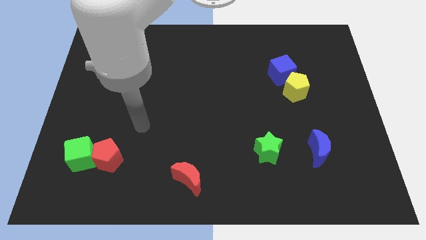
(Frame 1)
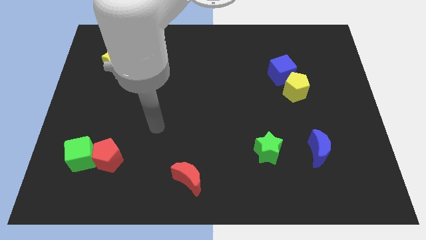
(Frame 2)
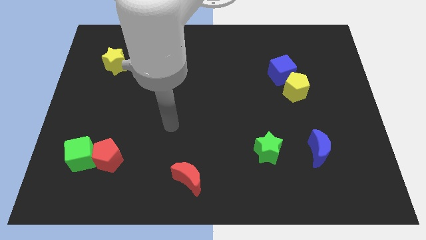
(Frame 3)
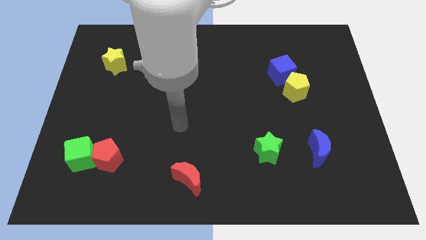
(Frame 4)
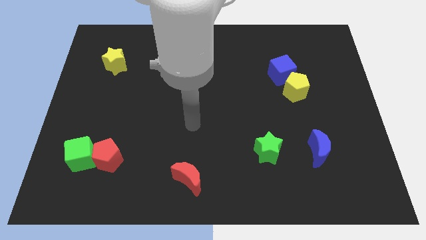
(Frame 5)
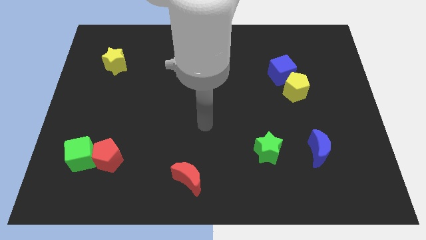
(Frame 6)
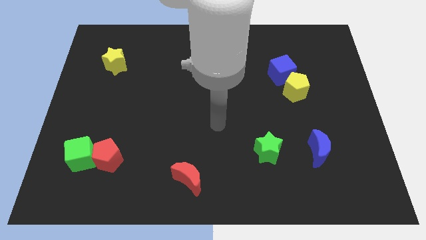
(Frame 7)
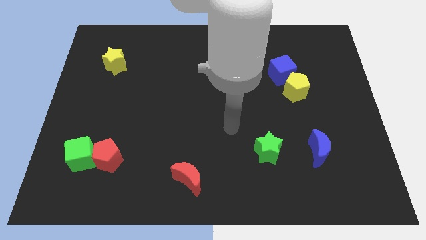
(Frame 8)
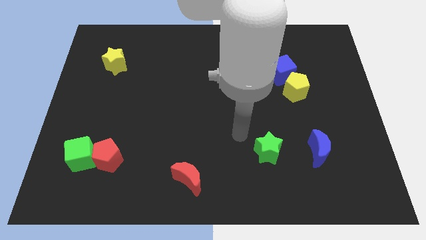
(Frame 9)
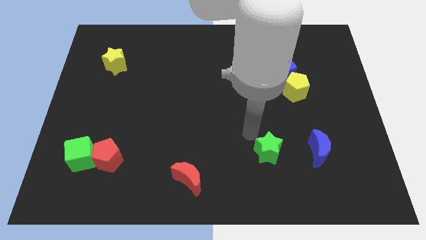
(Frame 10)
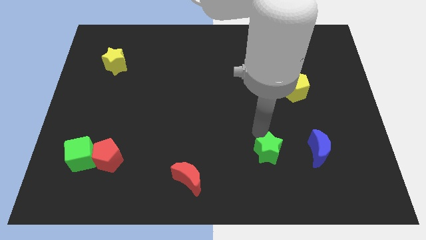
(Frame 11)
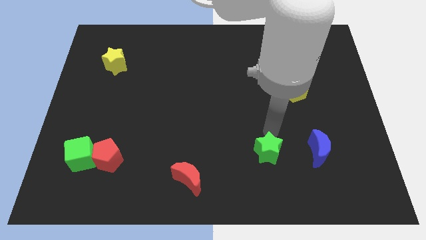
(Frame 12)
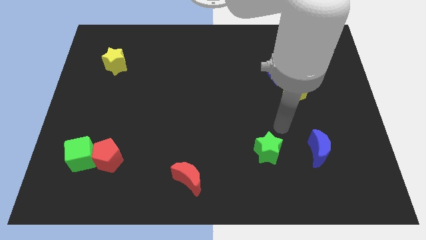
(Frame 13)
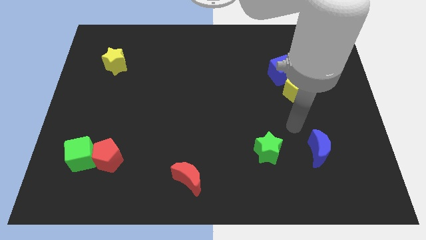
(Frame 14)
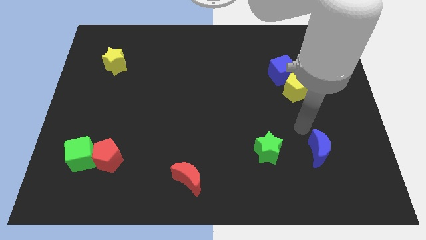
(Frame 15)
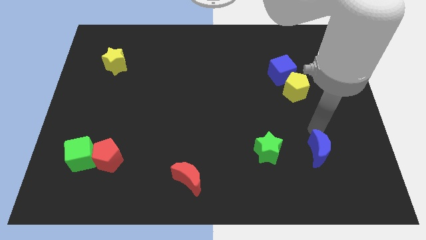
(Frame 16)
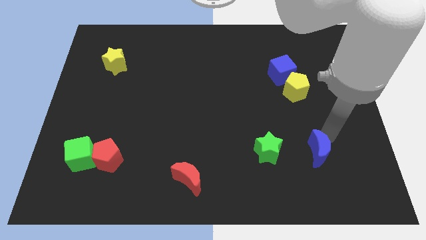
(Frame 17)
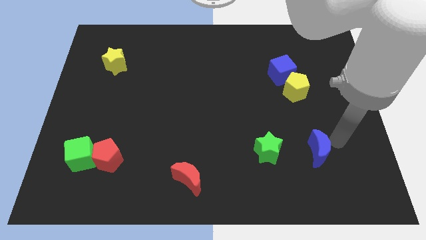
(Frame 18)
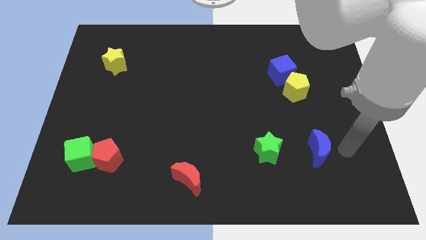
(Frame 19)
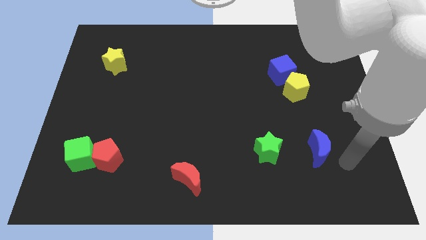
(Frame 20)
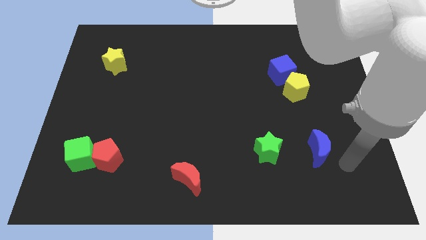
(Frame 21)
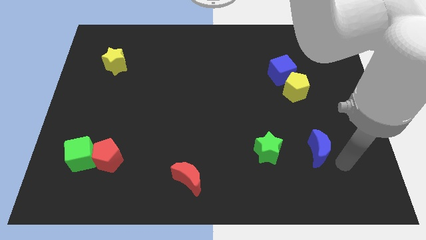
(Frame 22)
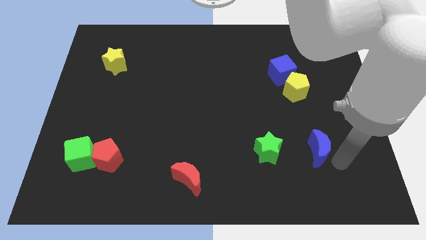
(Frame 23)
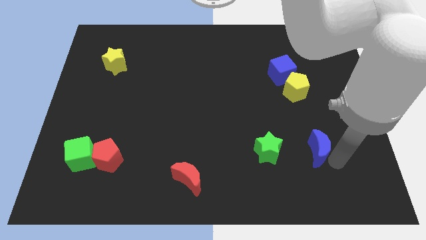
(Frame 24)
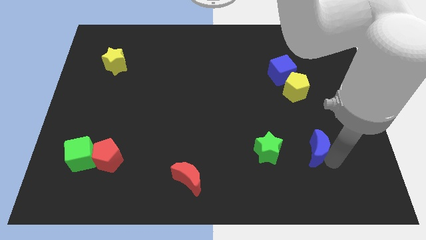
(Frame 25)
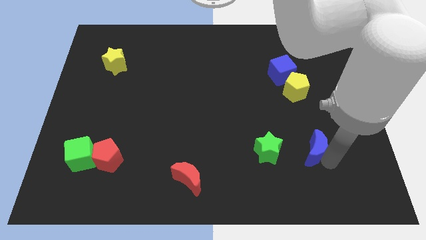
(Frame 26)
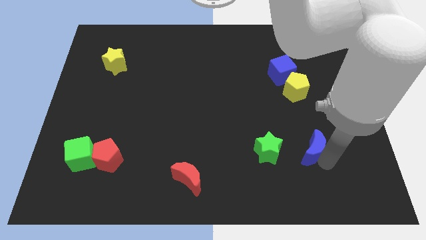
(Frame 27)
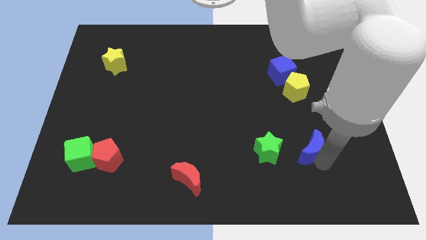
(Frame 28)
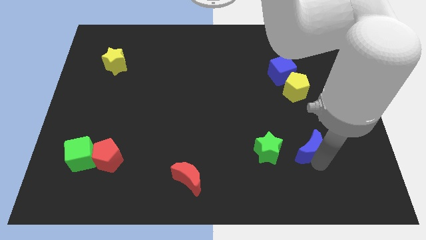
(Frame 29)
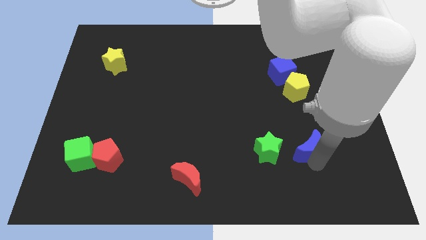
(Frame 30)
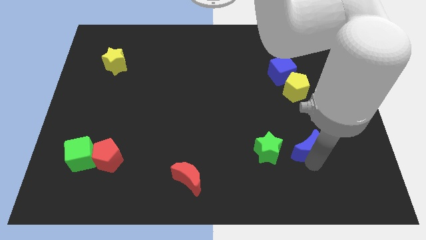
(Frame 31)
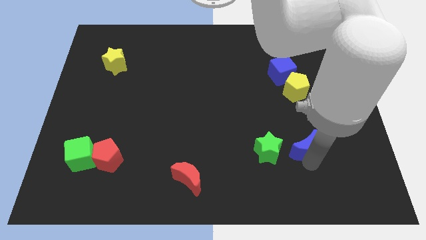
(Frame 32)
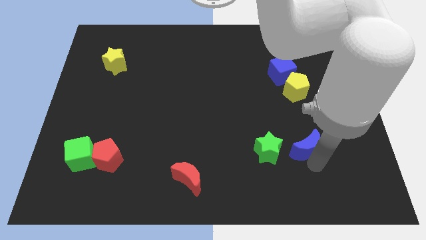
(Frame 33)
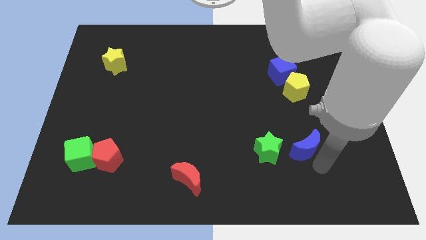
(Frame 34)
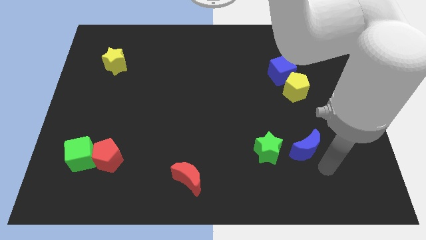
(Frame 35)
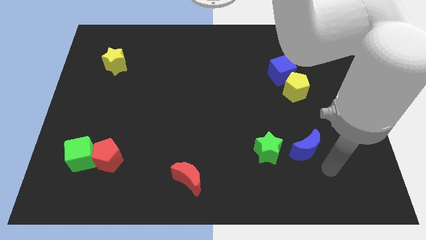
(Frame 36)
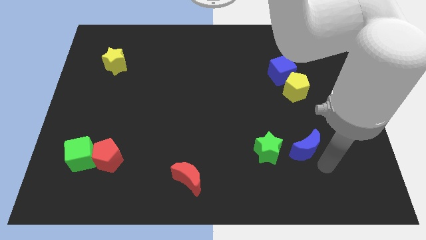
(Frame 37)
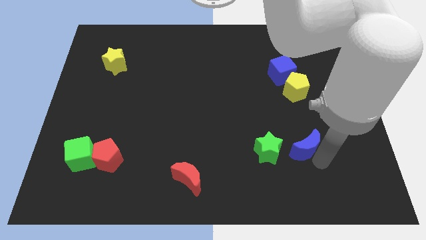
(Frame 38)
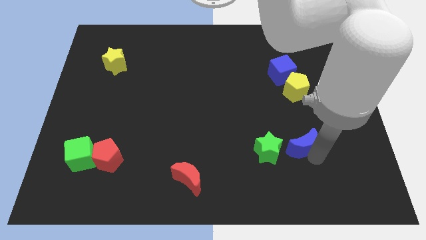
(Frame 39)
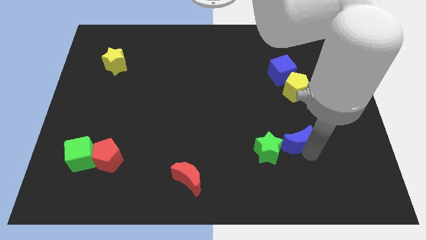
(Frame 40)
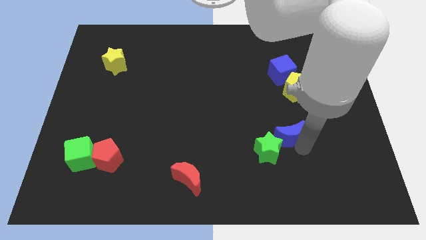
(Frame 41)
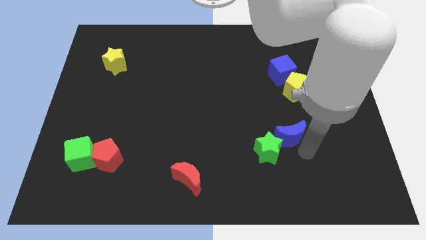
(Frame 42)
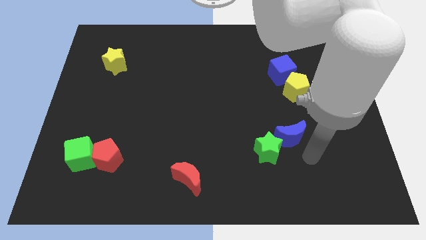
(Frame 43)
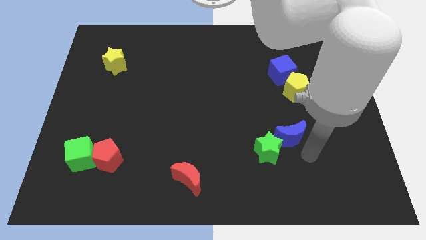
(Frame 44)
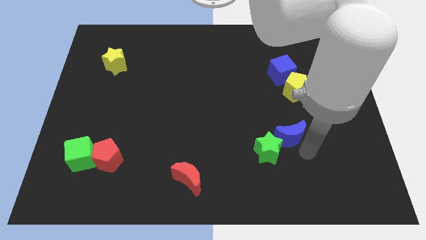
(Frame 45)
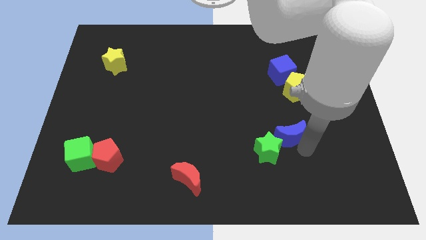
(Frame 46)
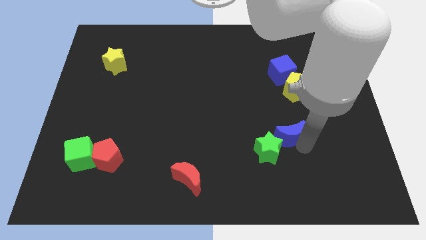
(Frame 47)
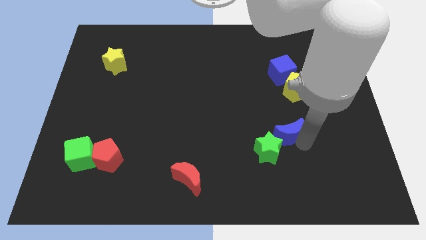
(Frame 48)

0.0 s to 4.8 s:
slide the blue moon slightly upwards and to the left diagonally

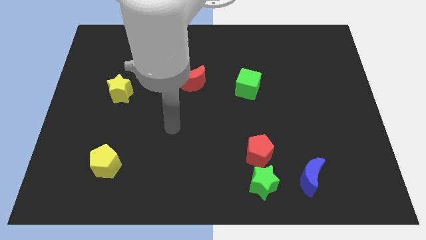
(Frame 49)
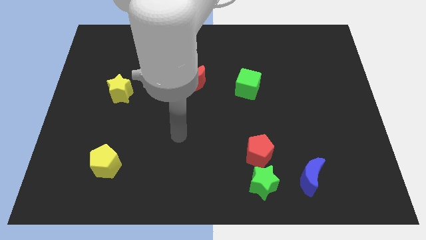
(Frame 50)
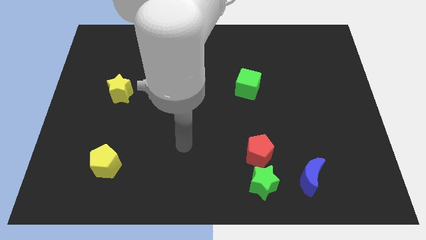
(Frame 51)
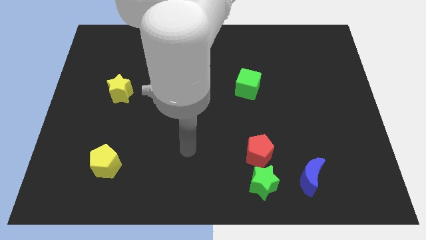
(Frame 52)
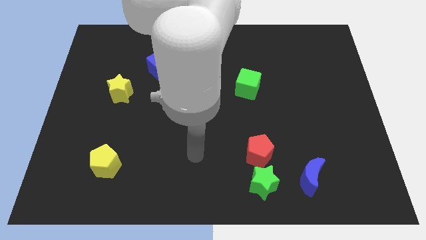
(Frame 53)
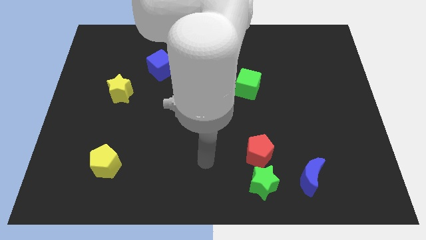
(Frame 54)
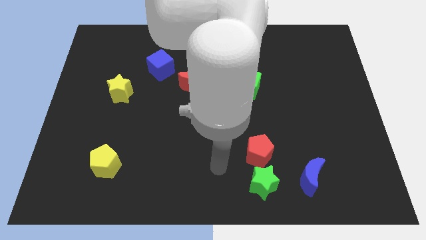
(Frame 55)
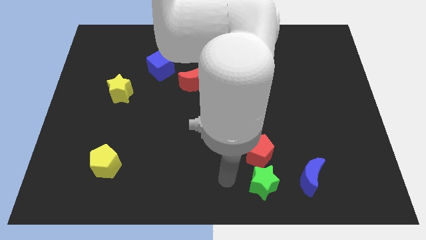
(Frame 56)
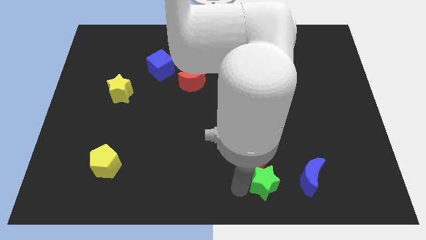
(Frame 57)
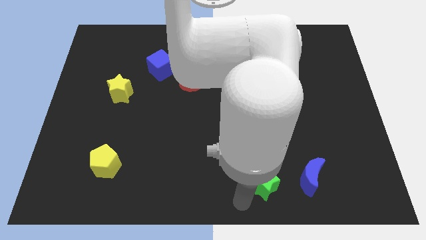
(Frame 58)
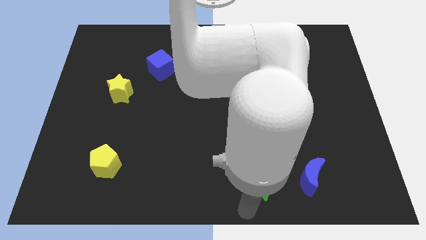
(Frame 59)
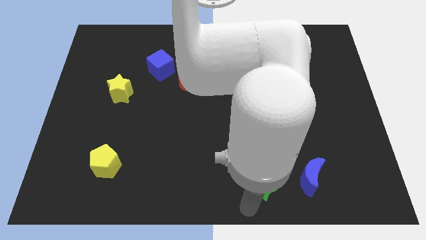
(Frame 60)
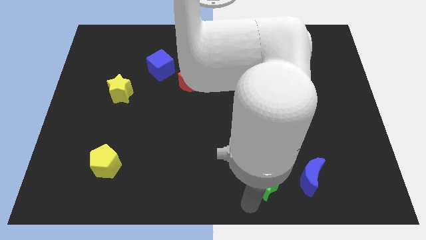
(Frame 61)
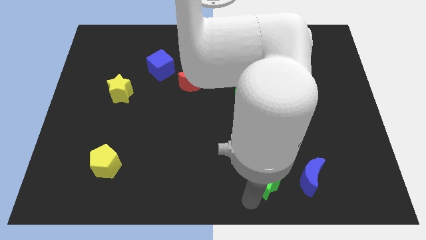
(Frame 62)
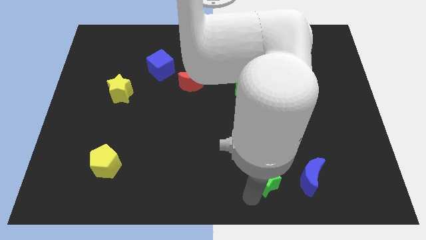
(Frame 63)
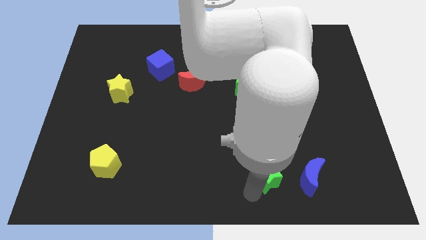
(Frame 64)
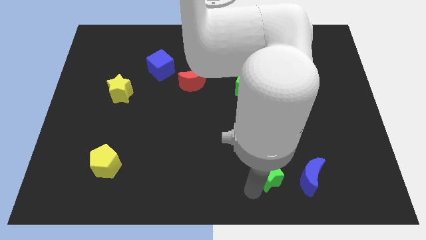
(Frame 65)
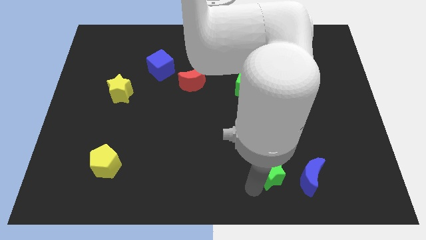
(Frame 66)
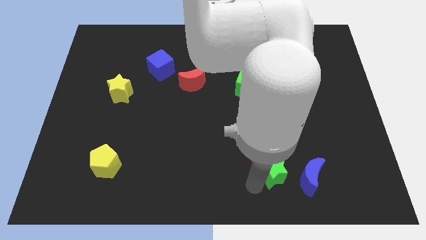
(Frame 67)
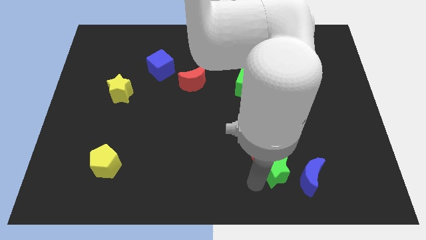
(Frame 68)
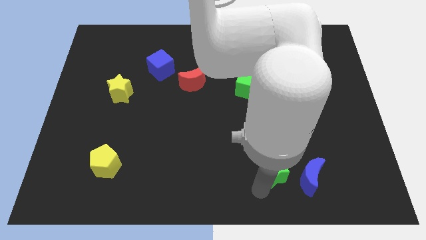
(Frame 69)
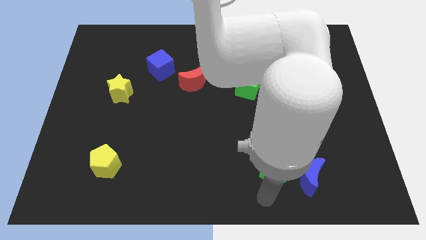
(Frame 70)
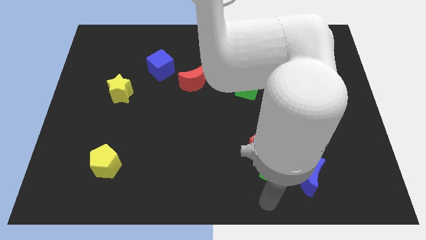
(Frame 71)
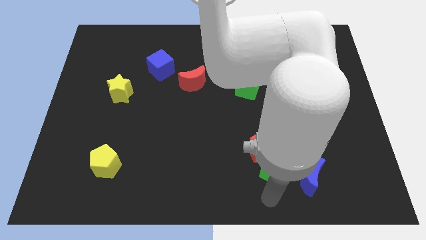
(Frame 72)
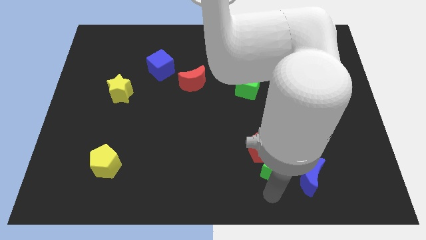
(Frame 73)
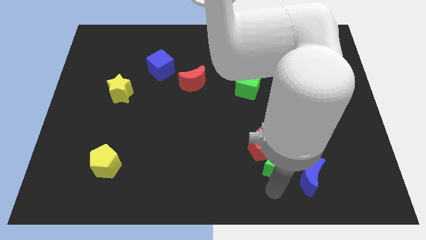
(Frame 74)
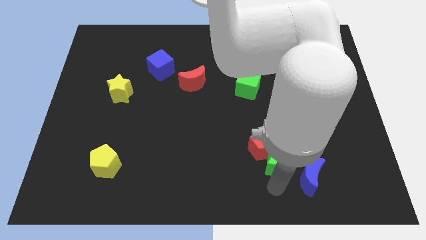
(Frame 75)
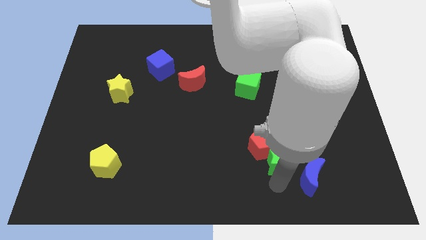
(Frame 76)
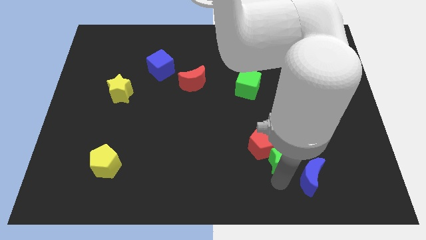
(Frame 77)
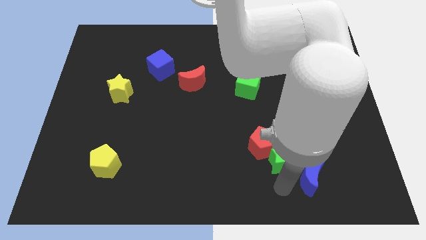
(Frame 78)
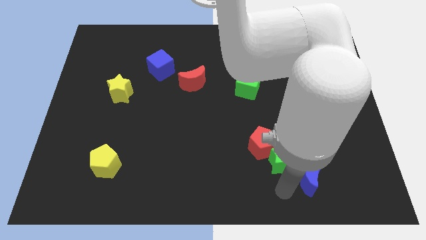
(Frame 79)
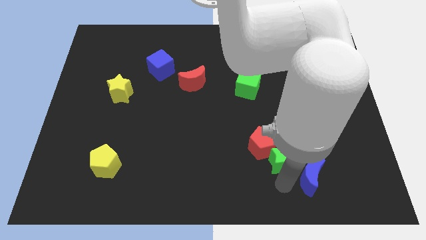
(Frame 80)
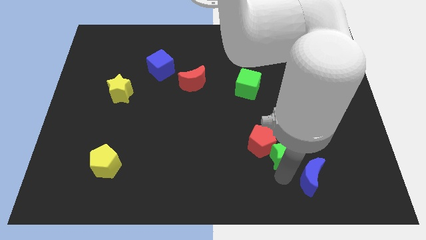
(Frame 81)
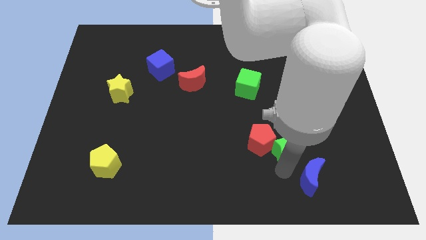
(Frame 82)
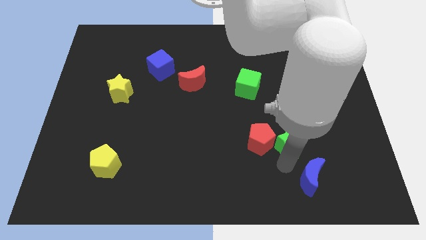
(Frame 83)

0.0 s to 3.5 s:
slightly push the green star upwards

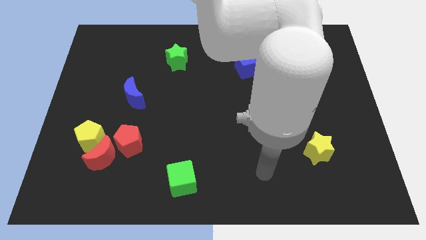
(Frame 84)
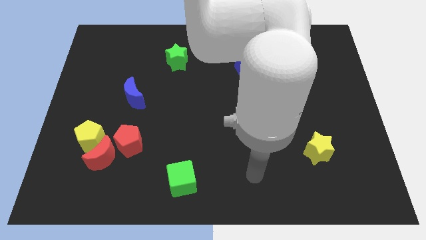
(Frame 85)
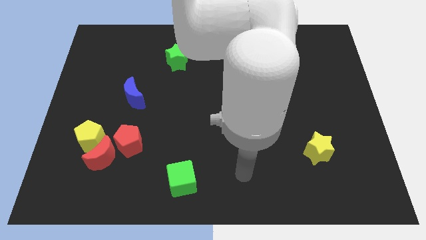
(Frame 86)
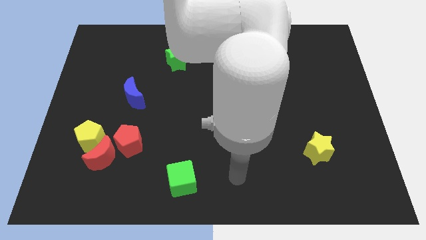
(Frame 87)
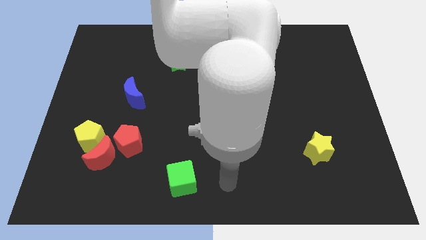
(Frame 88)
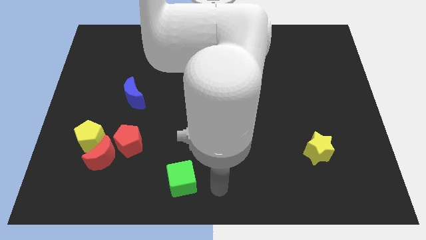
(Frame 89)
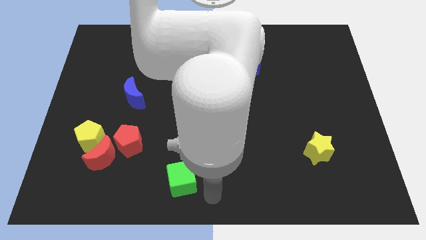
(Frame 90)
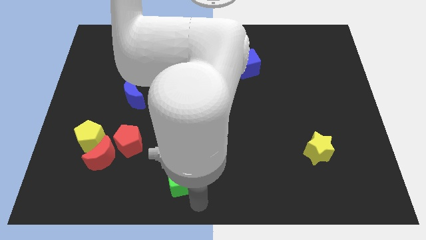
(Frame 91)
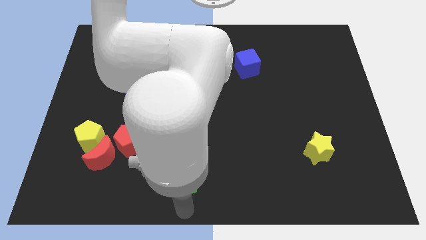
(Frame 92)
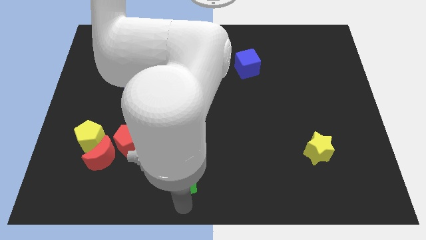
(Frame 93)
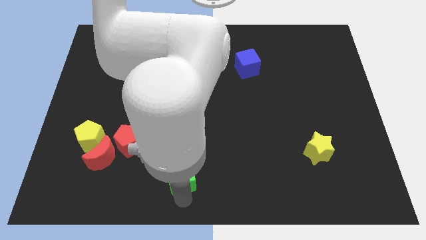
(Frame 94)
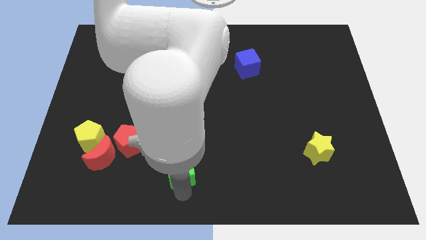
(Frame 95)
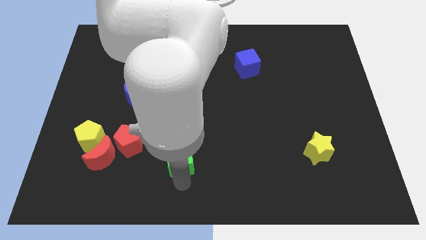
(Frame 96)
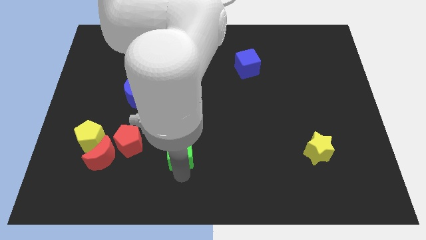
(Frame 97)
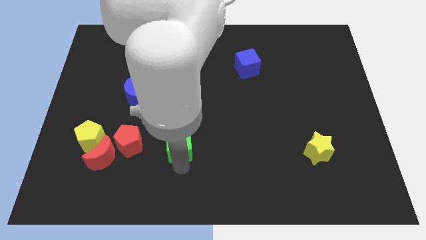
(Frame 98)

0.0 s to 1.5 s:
move the green cube up slightly
